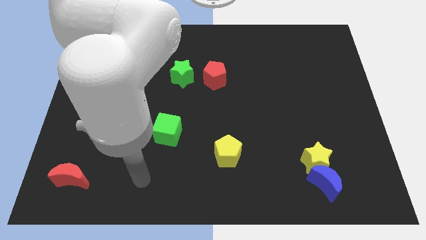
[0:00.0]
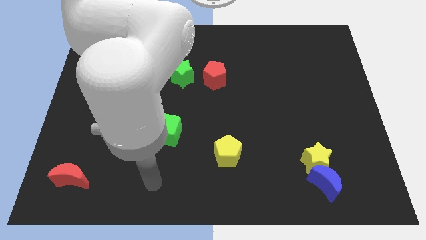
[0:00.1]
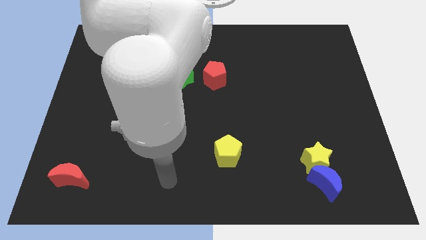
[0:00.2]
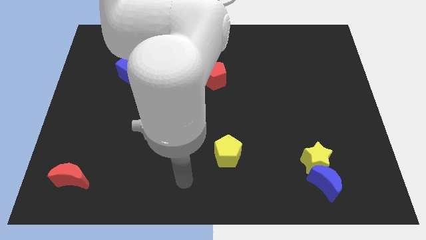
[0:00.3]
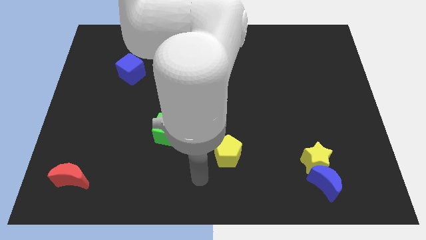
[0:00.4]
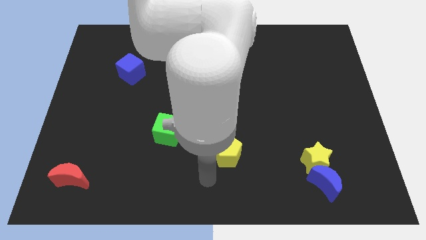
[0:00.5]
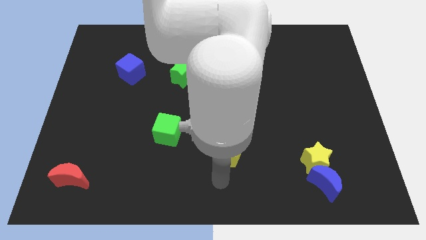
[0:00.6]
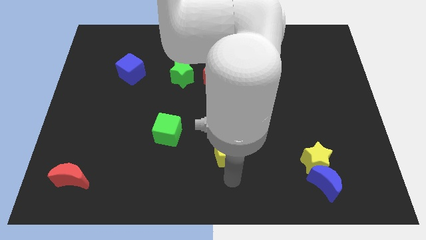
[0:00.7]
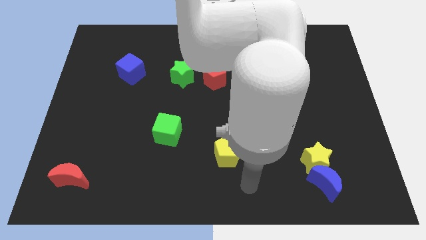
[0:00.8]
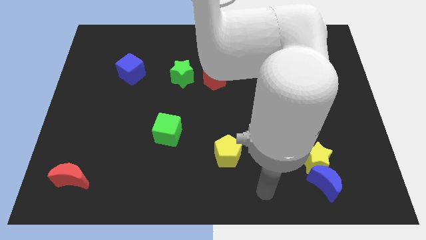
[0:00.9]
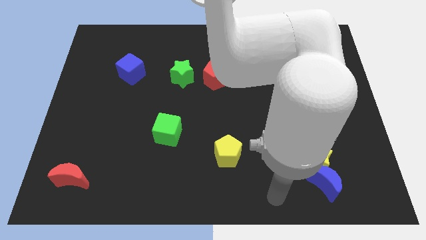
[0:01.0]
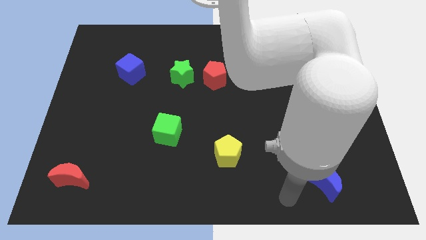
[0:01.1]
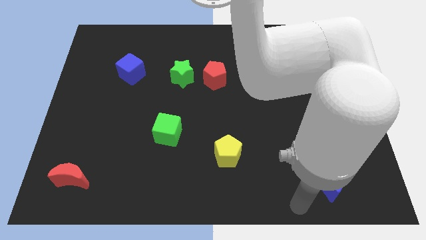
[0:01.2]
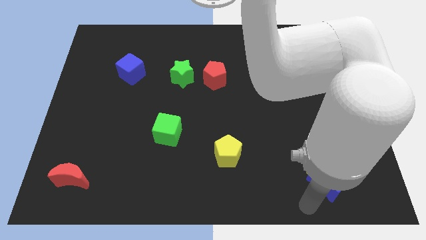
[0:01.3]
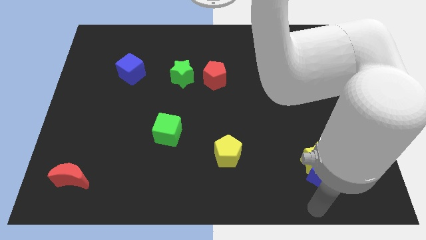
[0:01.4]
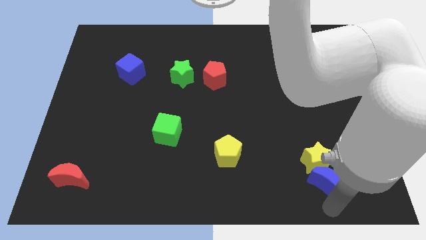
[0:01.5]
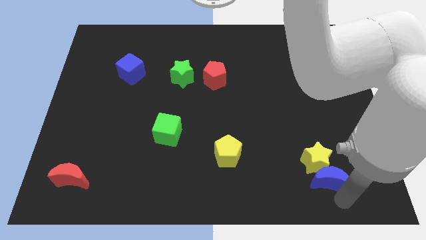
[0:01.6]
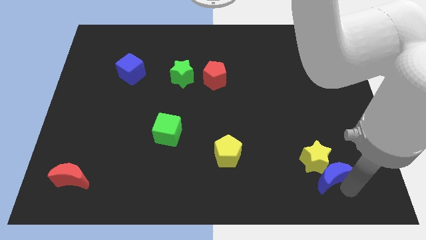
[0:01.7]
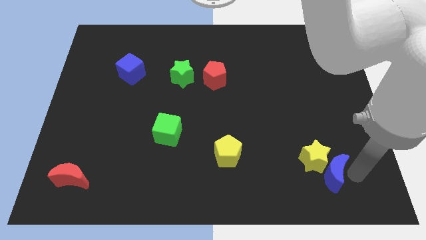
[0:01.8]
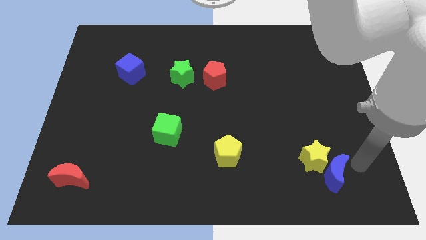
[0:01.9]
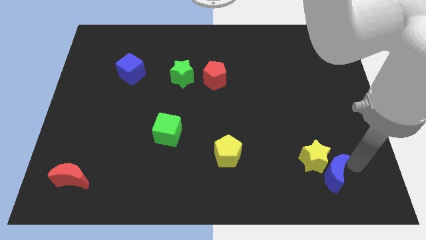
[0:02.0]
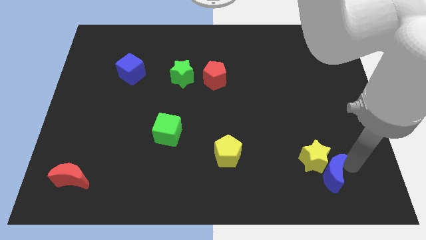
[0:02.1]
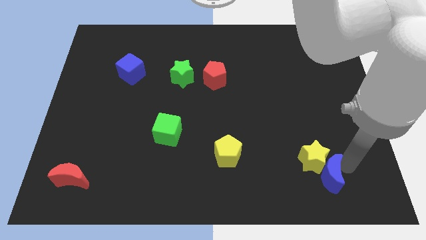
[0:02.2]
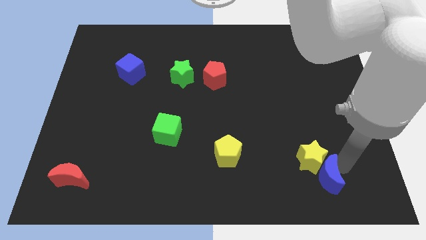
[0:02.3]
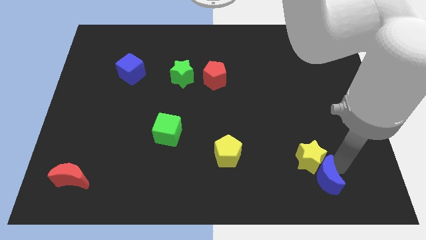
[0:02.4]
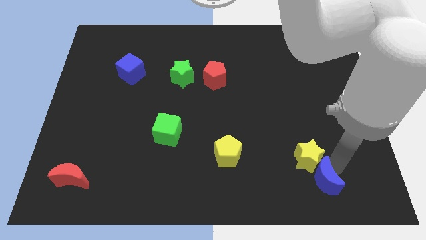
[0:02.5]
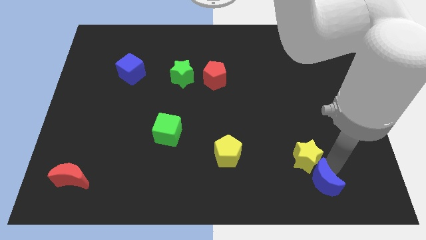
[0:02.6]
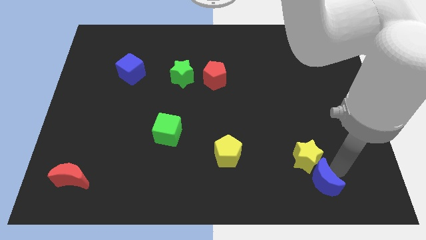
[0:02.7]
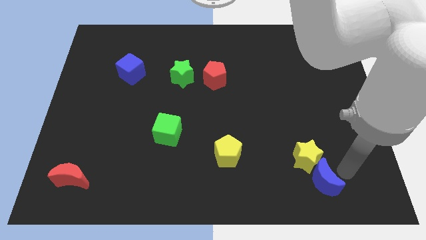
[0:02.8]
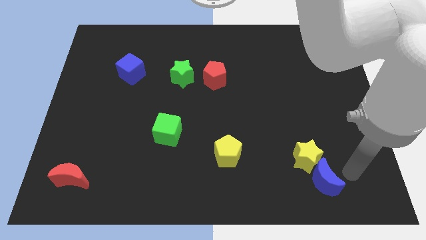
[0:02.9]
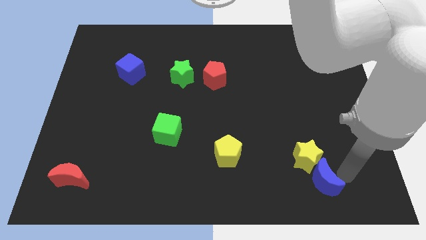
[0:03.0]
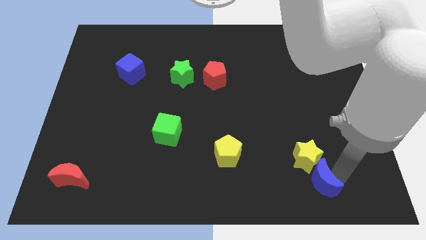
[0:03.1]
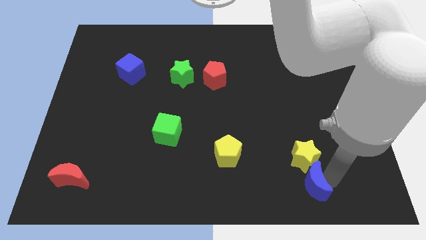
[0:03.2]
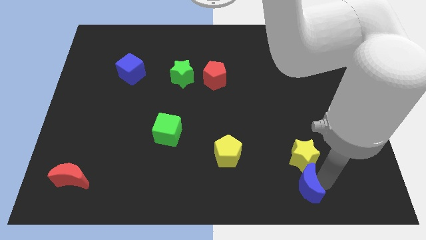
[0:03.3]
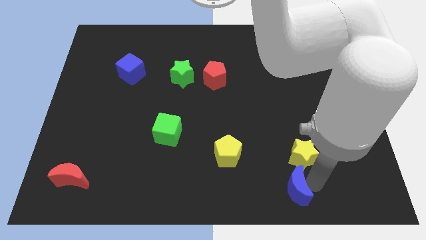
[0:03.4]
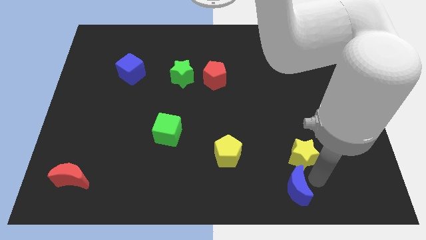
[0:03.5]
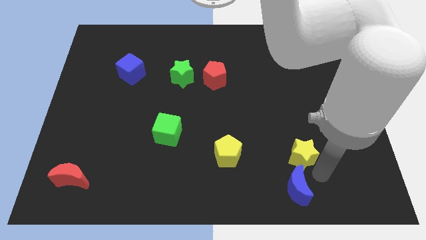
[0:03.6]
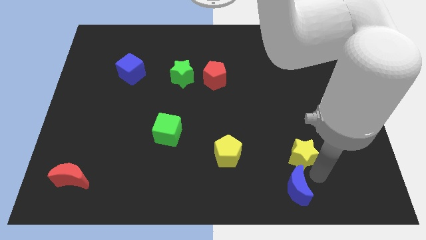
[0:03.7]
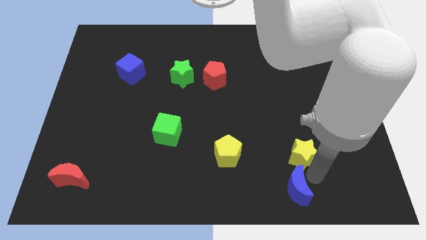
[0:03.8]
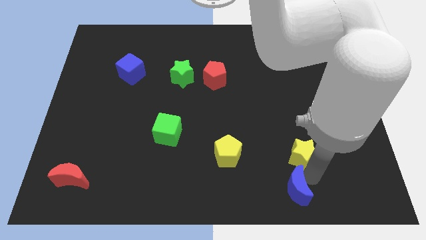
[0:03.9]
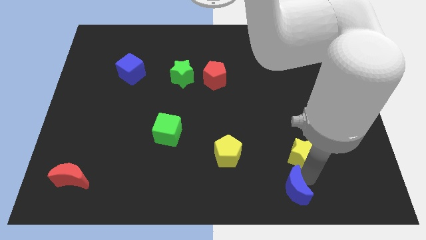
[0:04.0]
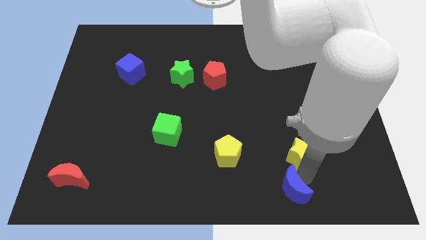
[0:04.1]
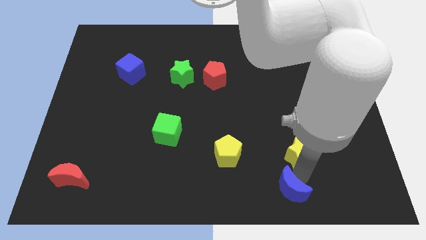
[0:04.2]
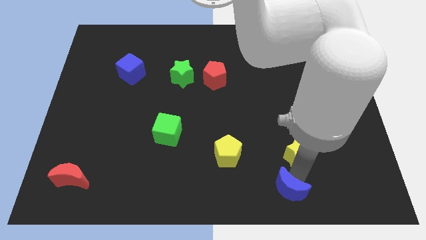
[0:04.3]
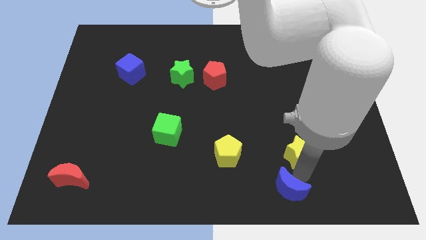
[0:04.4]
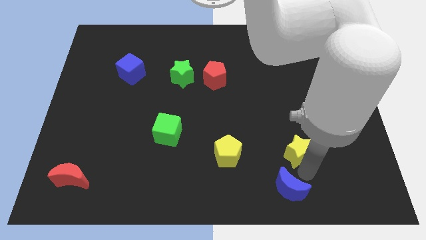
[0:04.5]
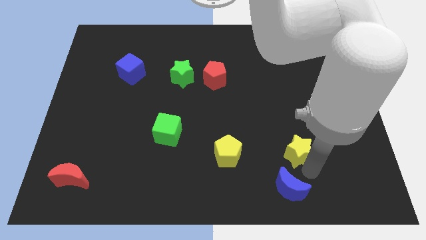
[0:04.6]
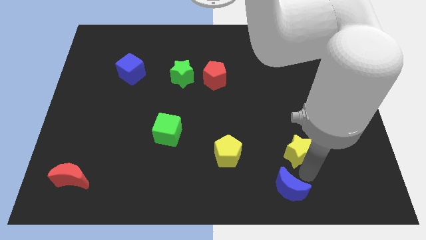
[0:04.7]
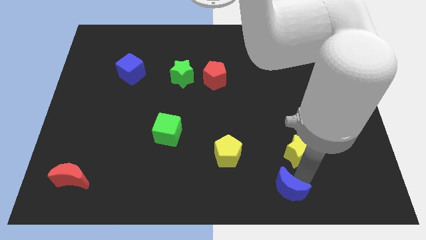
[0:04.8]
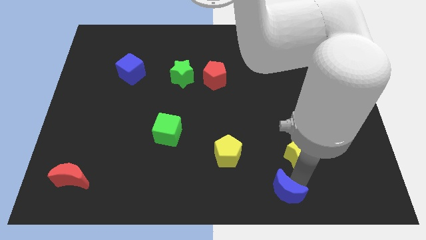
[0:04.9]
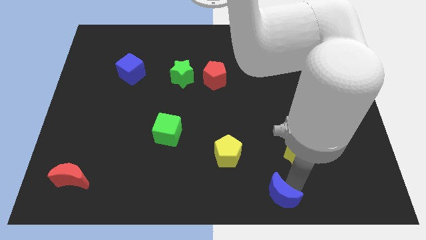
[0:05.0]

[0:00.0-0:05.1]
slide the blue moon to the bottom side

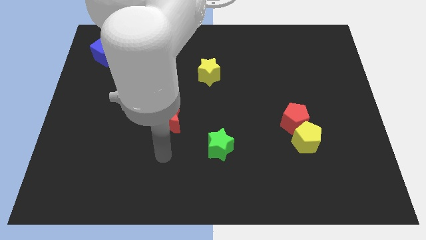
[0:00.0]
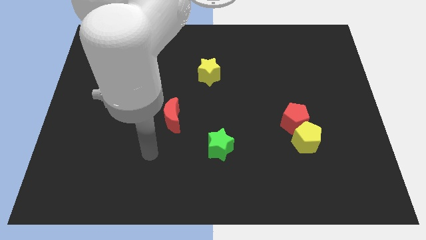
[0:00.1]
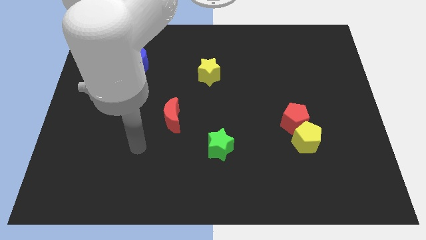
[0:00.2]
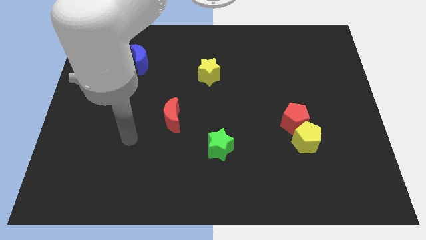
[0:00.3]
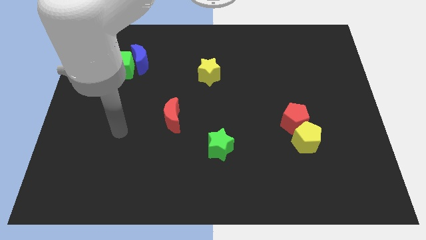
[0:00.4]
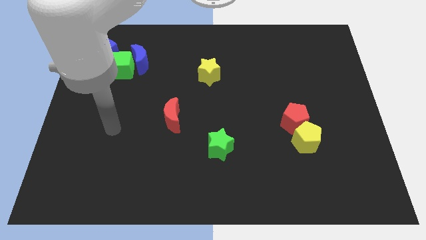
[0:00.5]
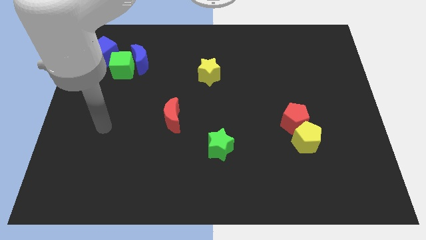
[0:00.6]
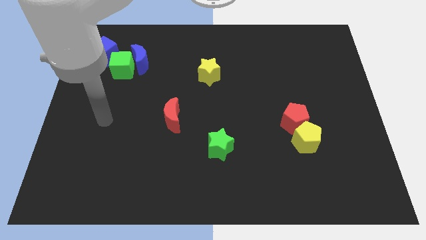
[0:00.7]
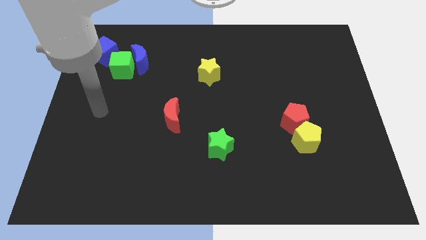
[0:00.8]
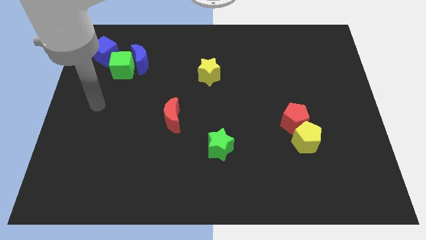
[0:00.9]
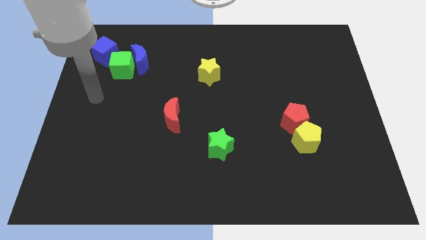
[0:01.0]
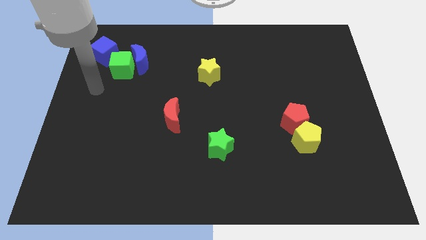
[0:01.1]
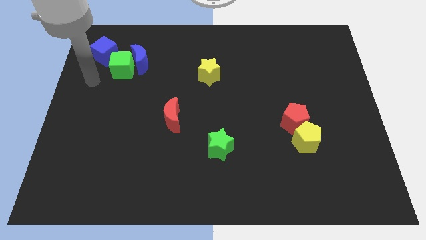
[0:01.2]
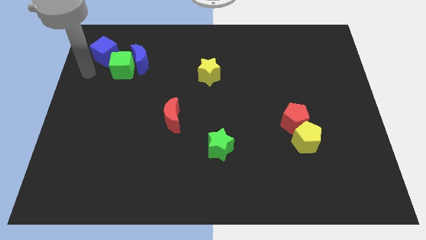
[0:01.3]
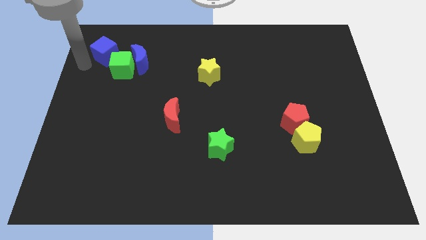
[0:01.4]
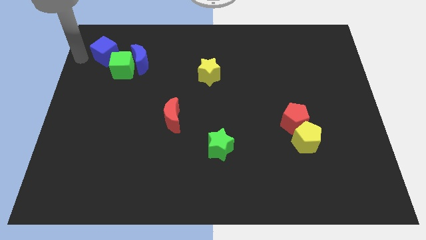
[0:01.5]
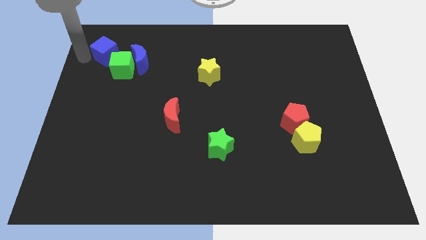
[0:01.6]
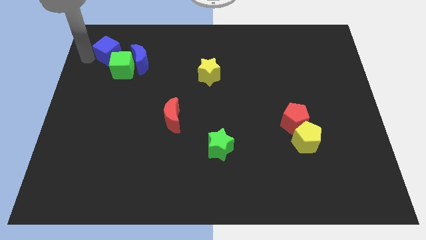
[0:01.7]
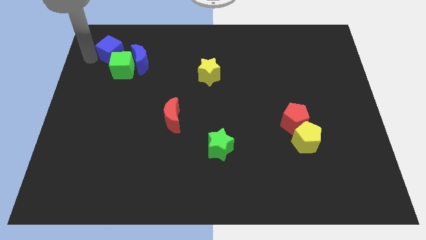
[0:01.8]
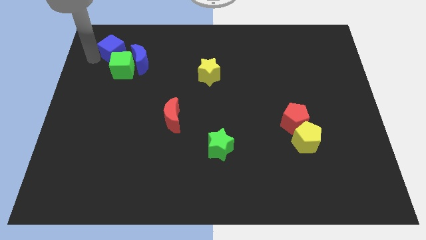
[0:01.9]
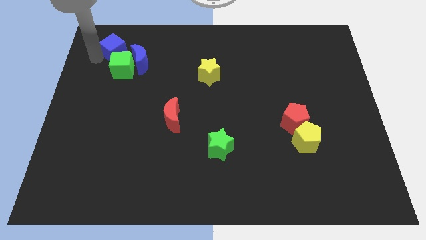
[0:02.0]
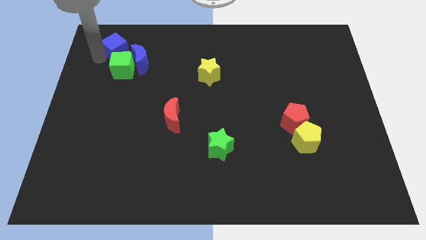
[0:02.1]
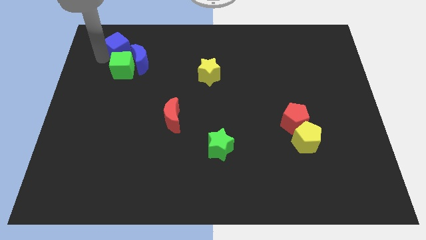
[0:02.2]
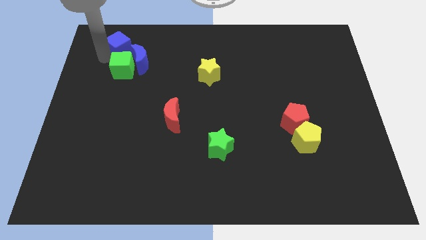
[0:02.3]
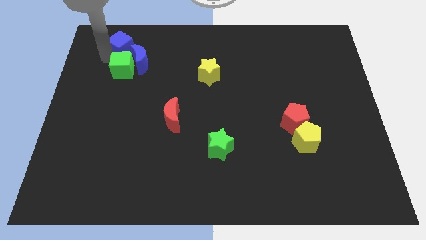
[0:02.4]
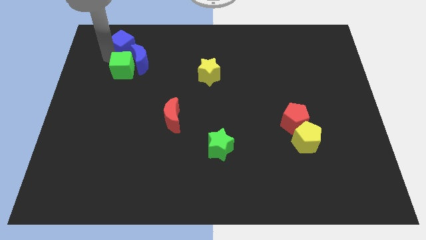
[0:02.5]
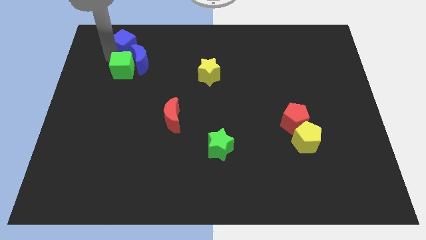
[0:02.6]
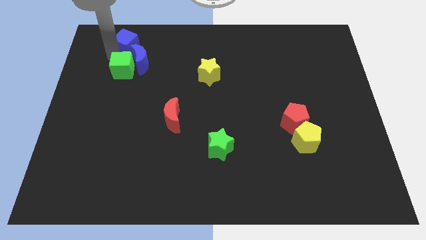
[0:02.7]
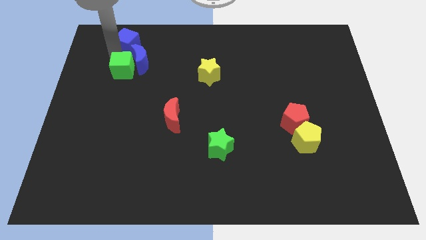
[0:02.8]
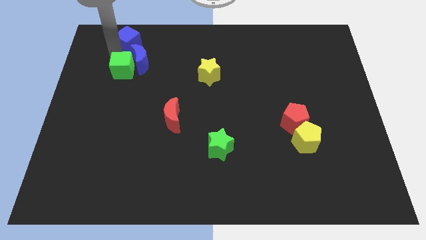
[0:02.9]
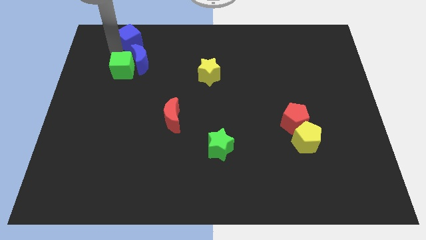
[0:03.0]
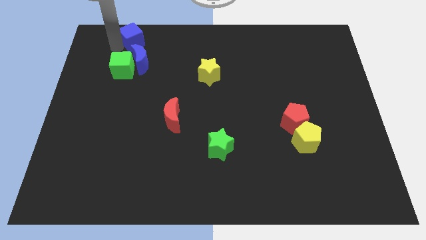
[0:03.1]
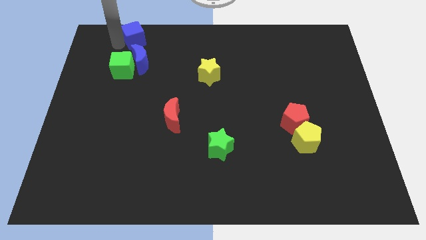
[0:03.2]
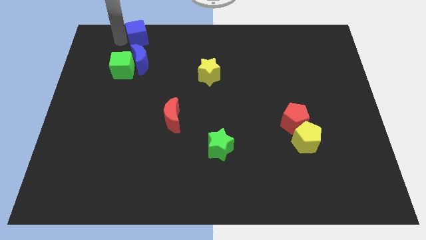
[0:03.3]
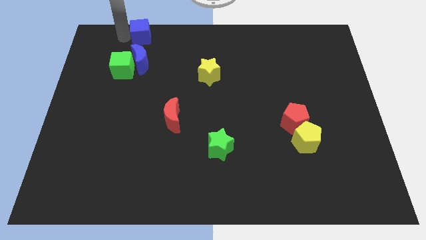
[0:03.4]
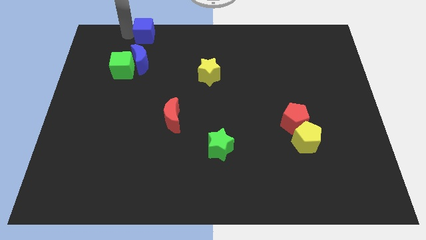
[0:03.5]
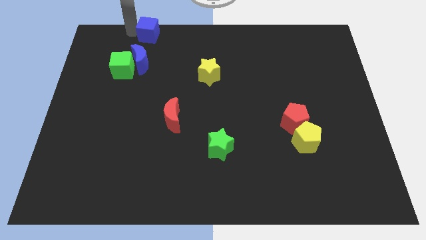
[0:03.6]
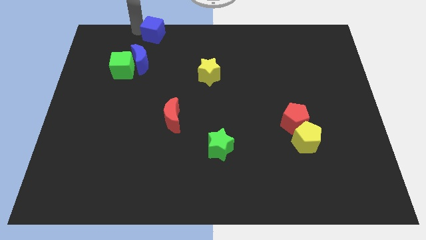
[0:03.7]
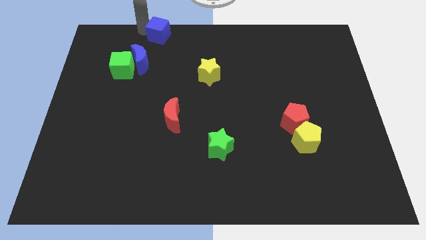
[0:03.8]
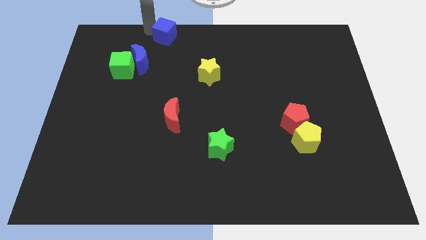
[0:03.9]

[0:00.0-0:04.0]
put the blue cube to the top
